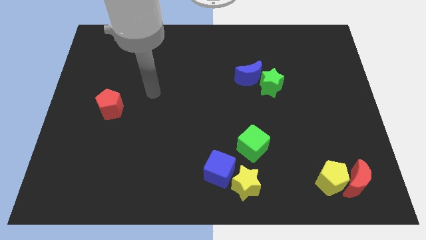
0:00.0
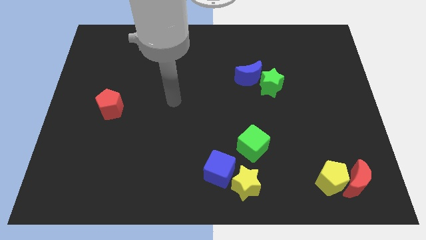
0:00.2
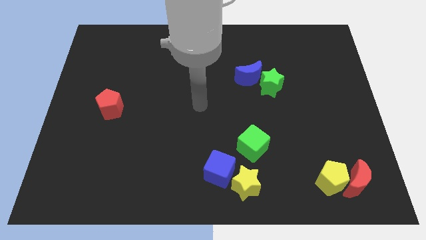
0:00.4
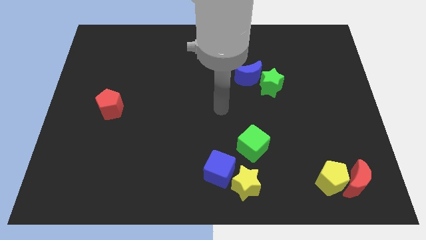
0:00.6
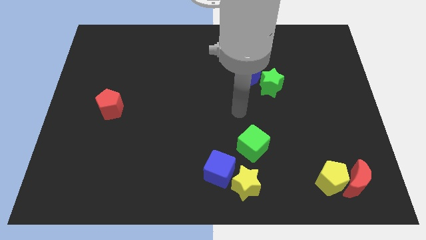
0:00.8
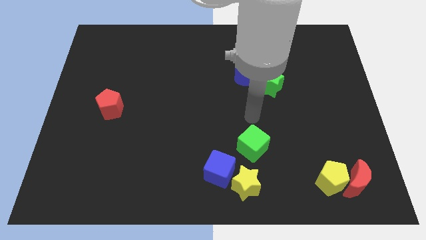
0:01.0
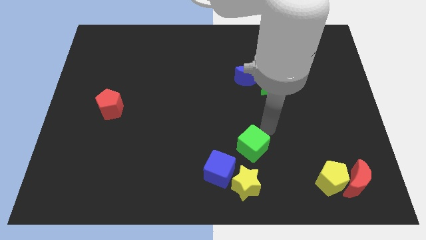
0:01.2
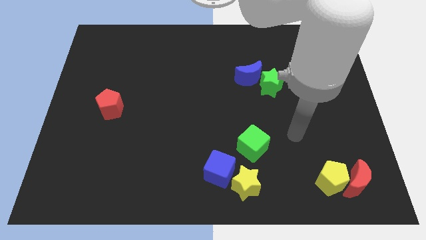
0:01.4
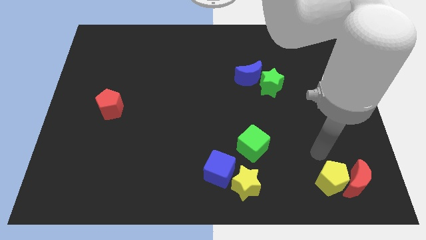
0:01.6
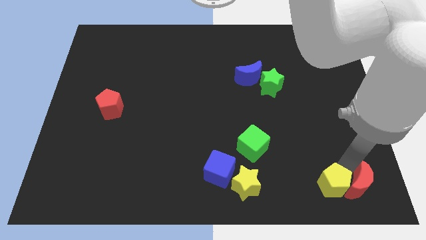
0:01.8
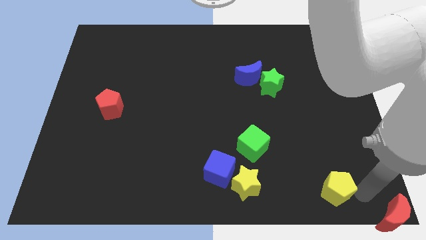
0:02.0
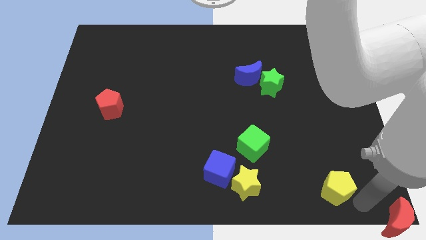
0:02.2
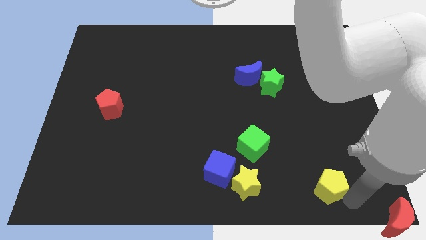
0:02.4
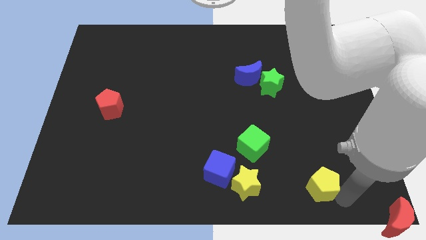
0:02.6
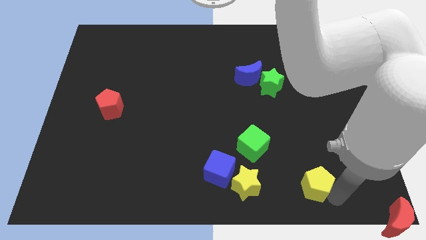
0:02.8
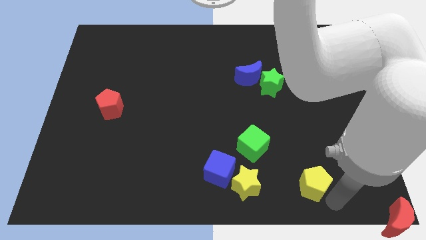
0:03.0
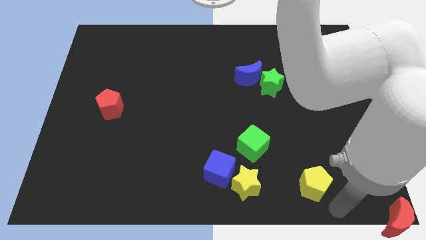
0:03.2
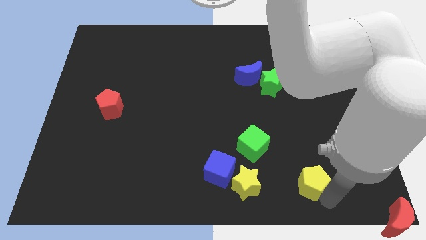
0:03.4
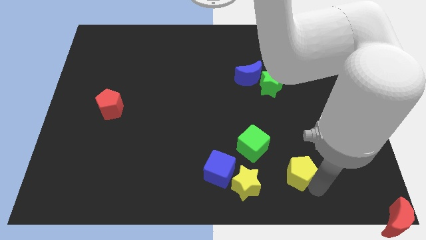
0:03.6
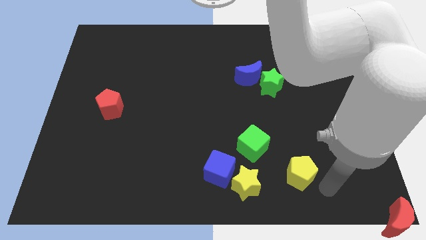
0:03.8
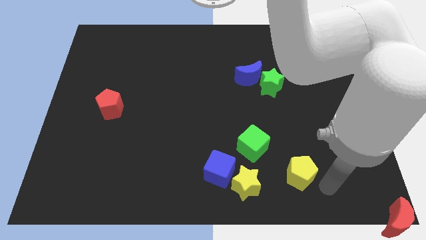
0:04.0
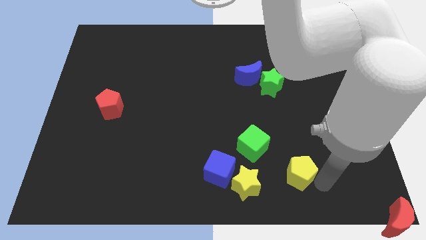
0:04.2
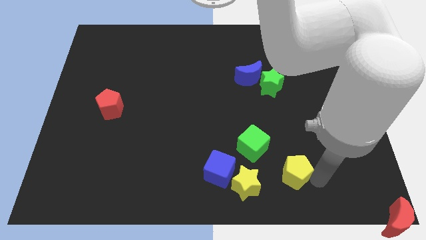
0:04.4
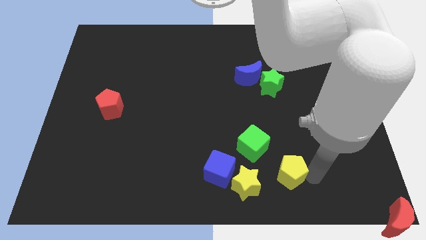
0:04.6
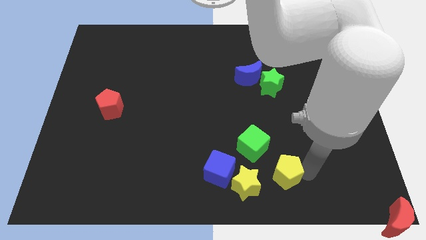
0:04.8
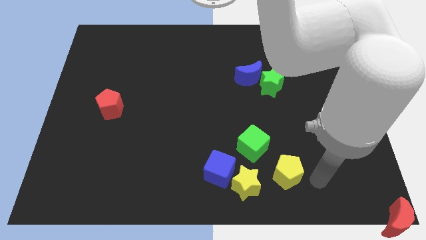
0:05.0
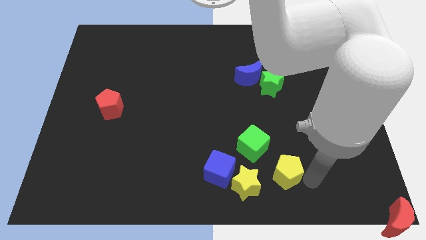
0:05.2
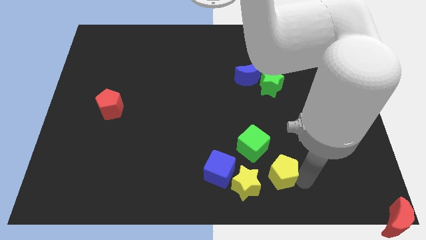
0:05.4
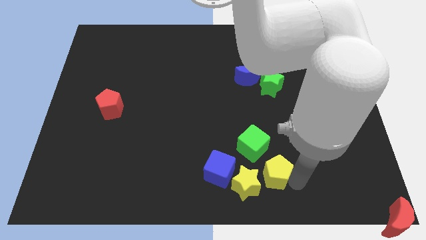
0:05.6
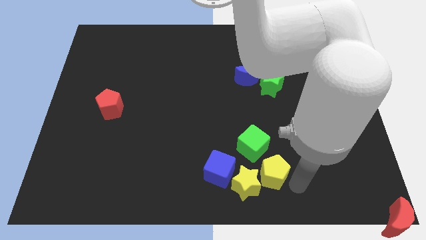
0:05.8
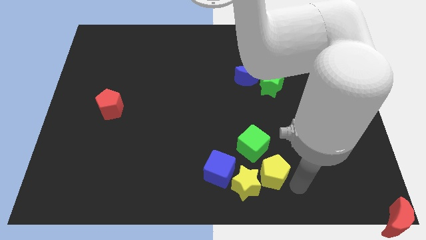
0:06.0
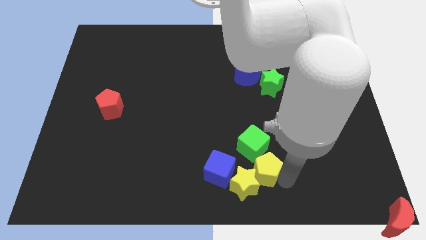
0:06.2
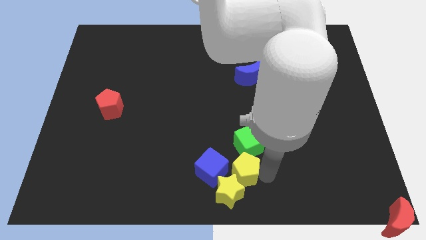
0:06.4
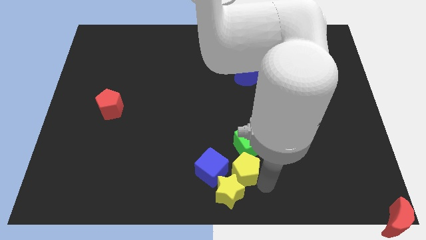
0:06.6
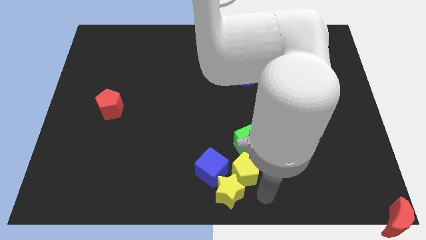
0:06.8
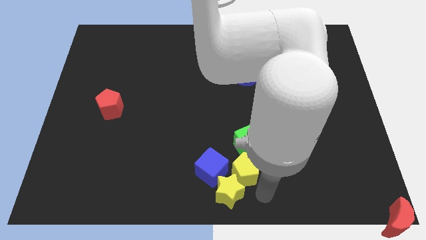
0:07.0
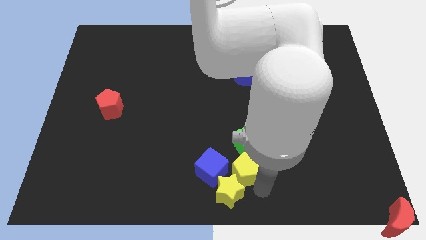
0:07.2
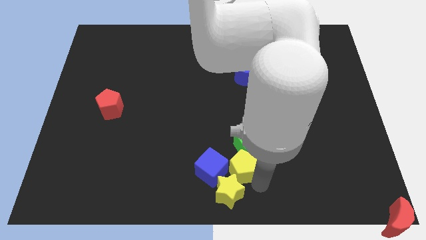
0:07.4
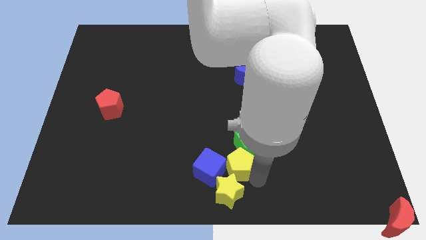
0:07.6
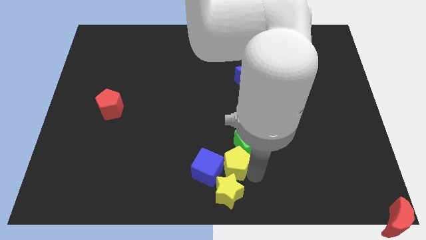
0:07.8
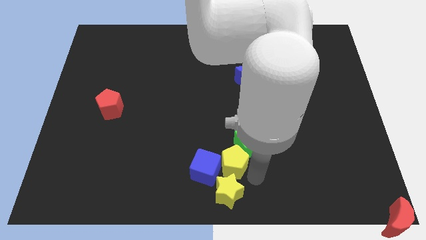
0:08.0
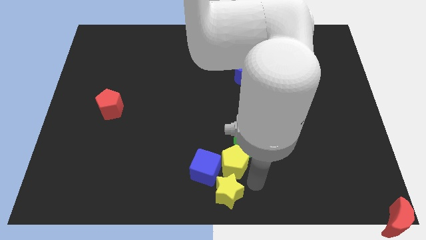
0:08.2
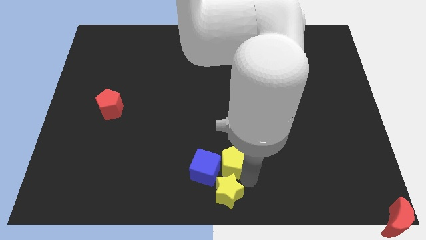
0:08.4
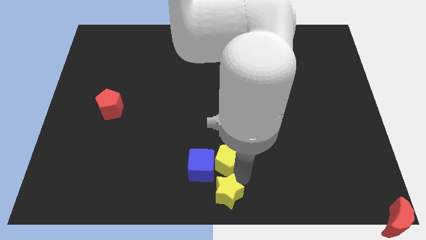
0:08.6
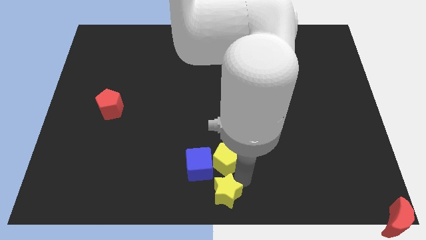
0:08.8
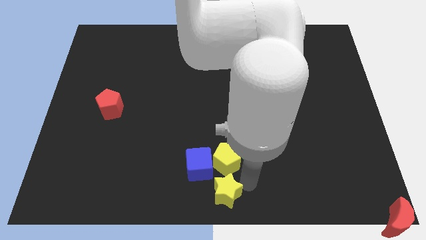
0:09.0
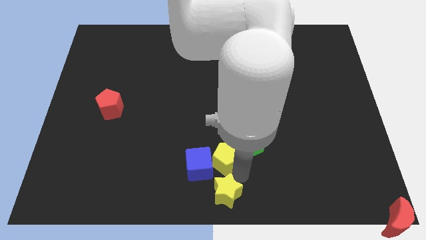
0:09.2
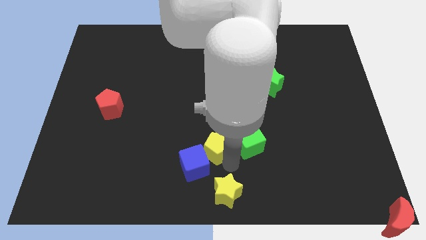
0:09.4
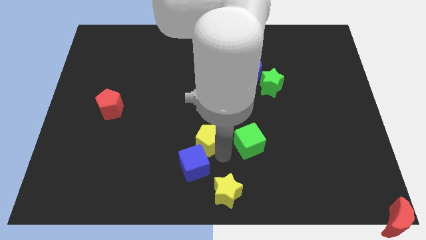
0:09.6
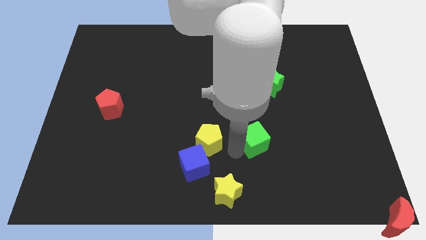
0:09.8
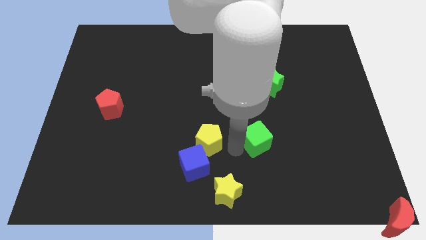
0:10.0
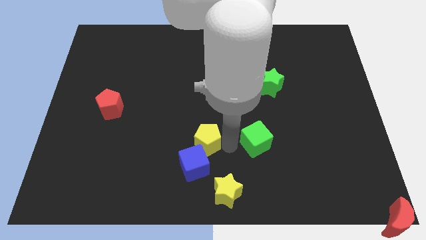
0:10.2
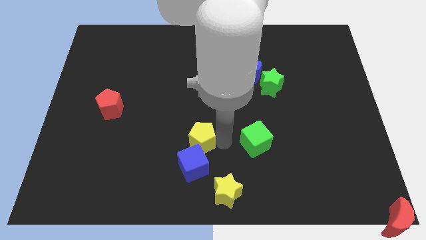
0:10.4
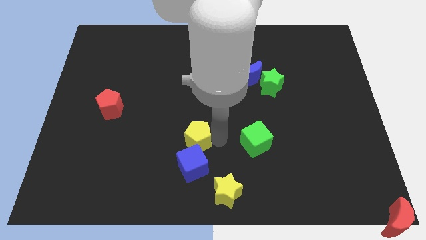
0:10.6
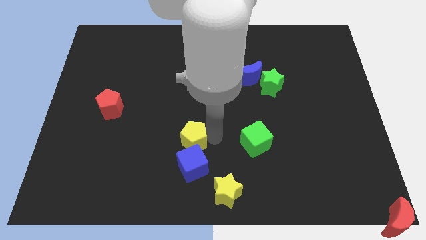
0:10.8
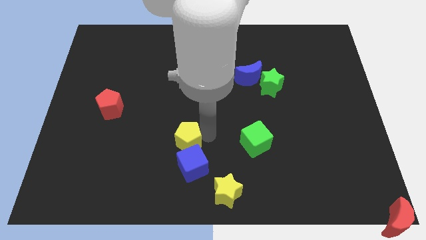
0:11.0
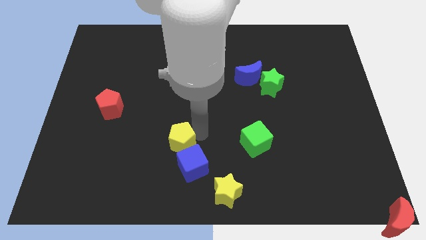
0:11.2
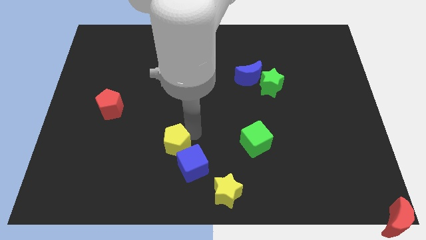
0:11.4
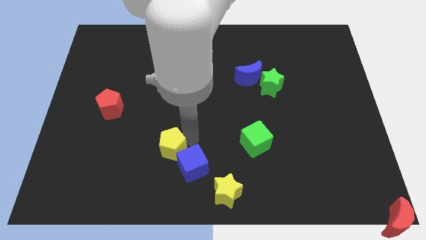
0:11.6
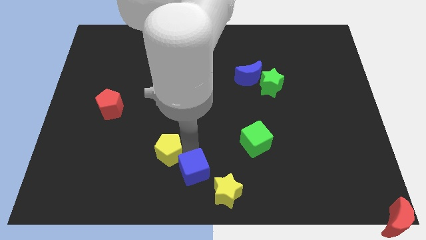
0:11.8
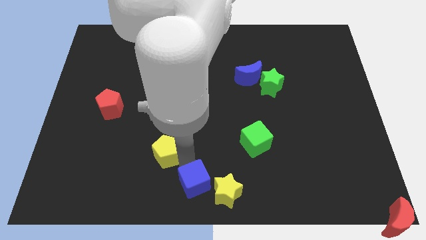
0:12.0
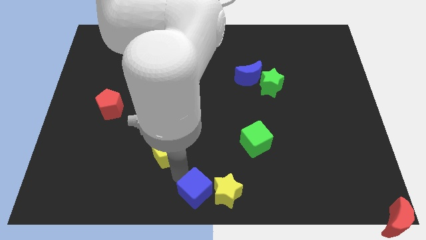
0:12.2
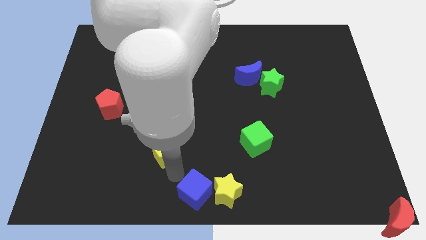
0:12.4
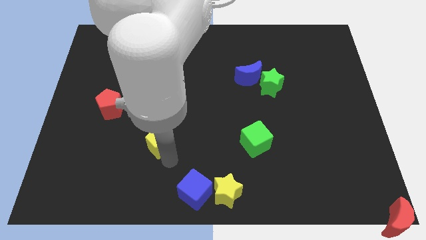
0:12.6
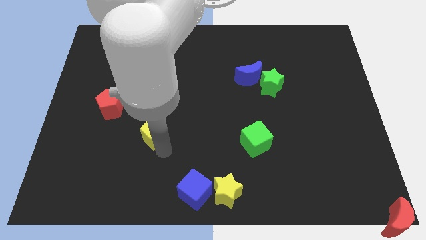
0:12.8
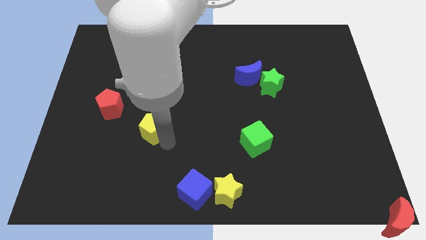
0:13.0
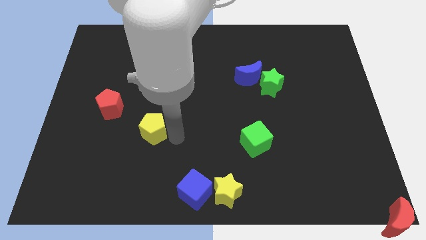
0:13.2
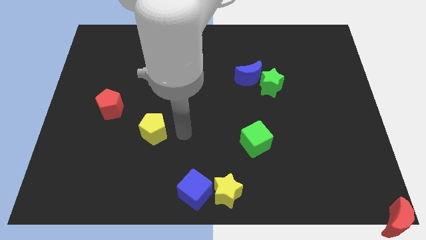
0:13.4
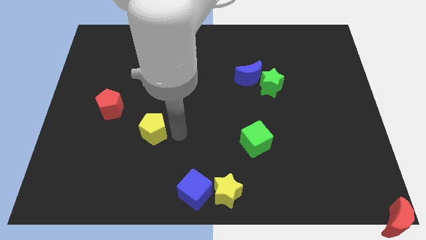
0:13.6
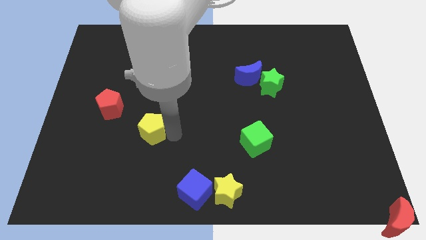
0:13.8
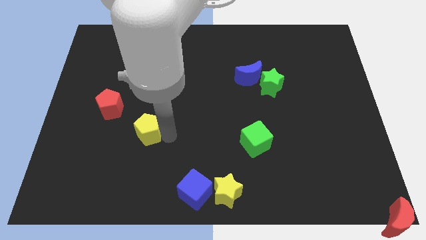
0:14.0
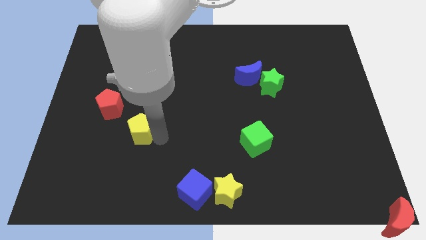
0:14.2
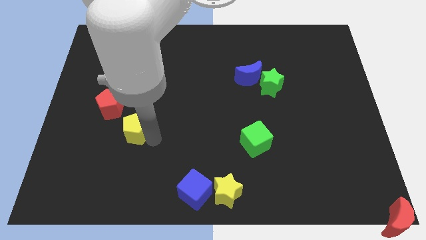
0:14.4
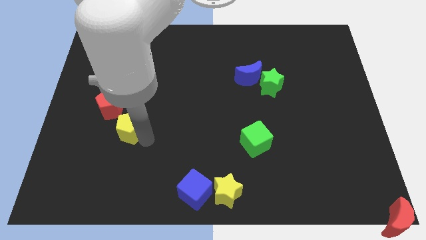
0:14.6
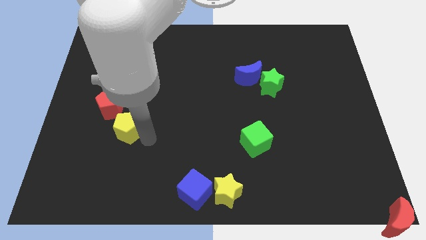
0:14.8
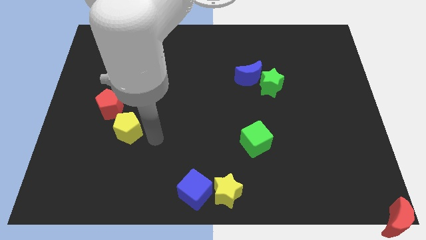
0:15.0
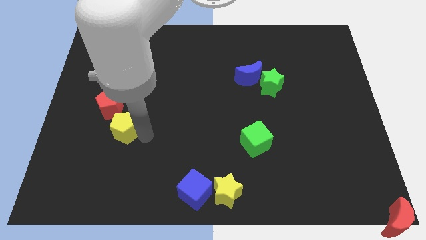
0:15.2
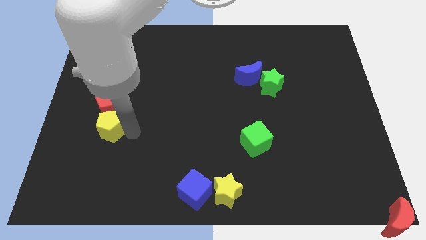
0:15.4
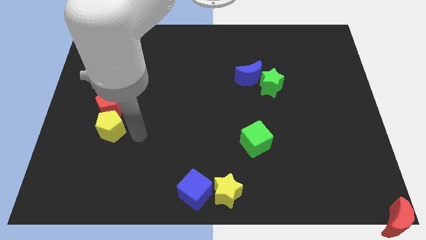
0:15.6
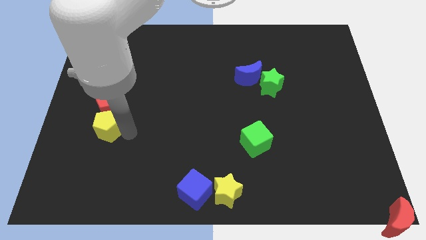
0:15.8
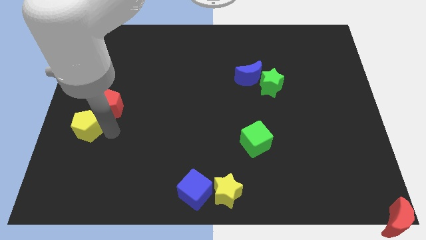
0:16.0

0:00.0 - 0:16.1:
move the yellow pentagon to the left side
